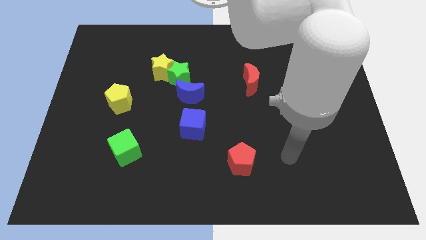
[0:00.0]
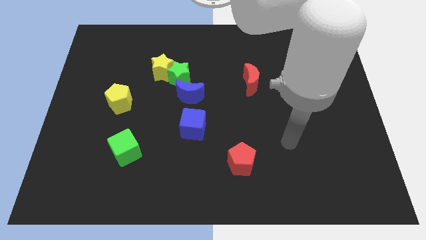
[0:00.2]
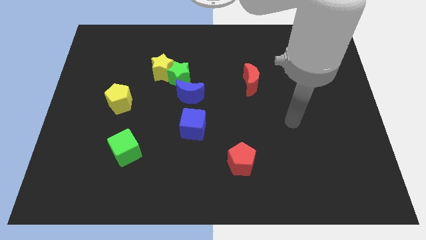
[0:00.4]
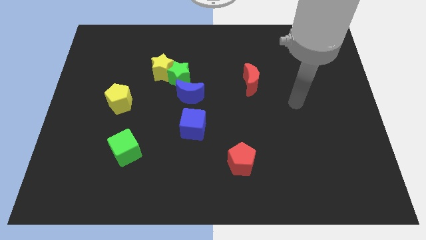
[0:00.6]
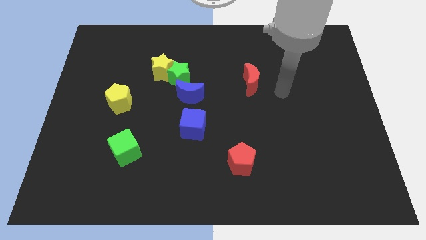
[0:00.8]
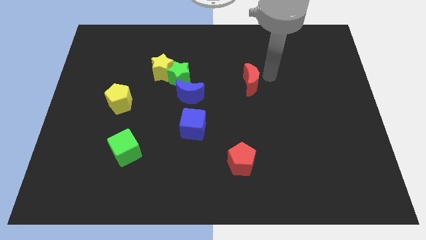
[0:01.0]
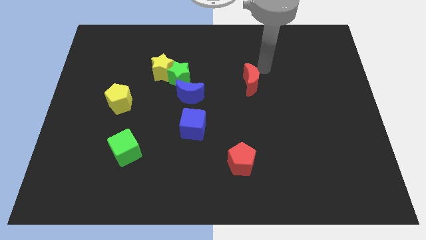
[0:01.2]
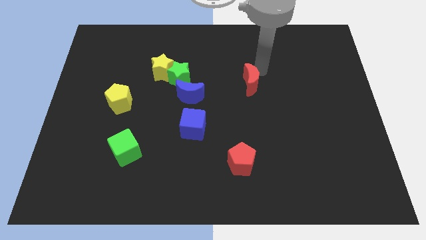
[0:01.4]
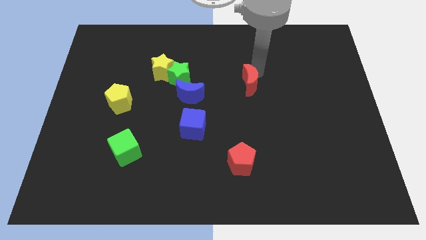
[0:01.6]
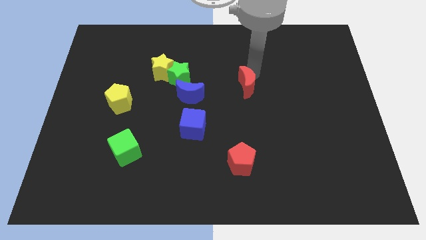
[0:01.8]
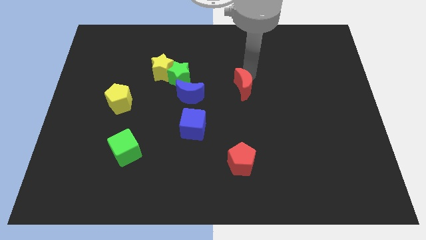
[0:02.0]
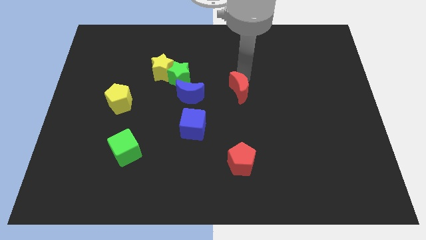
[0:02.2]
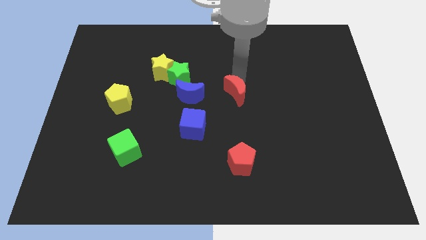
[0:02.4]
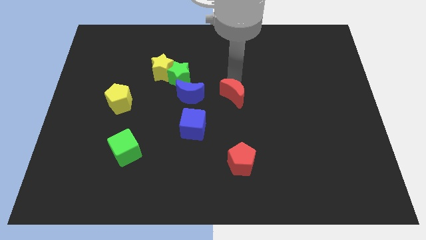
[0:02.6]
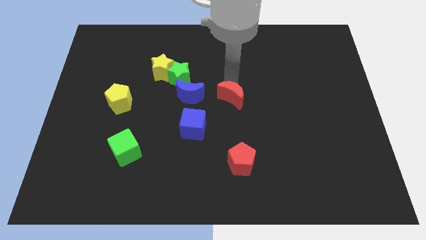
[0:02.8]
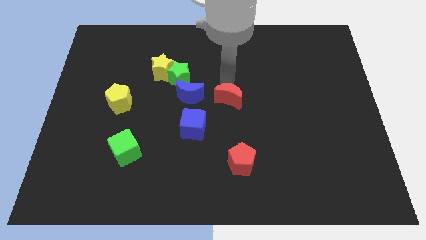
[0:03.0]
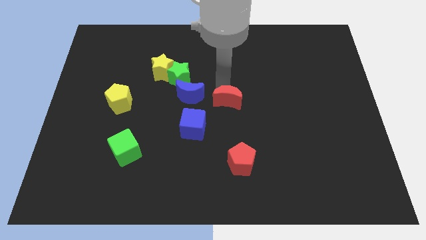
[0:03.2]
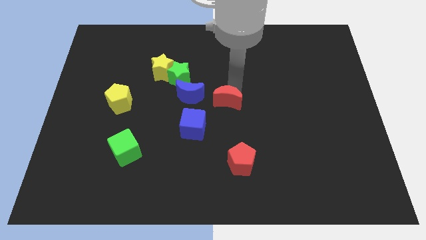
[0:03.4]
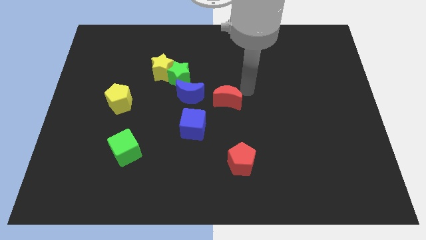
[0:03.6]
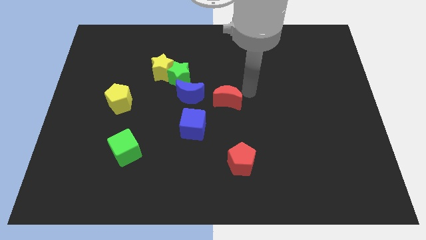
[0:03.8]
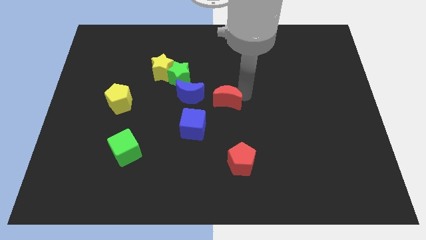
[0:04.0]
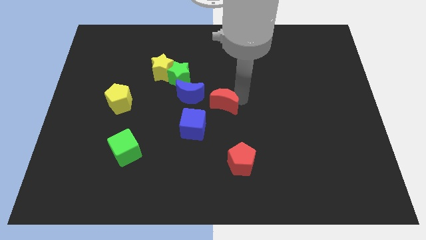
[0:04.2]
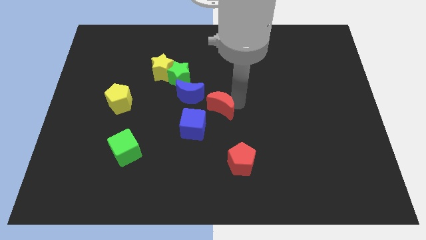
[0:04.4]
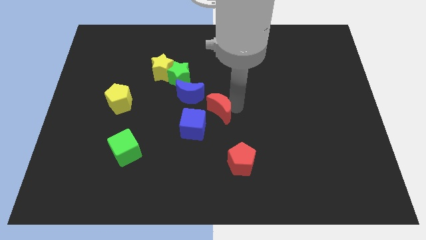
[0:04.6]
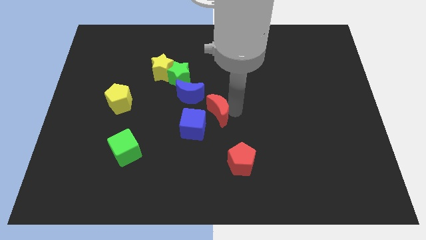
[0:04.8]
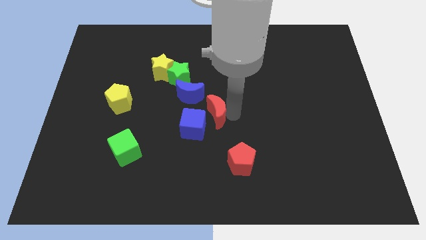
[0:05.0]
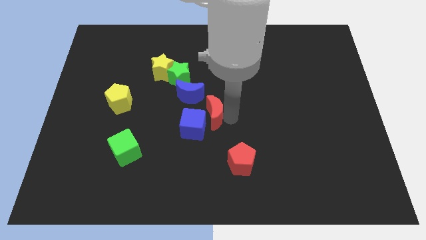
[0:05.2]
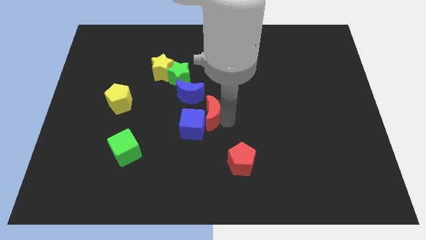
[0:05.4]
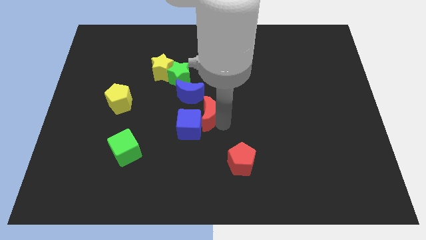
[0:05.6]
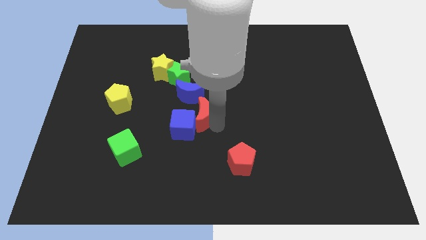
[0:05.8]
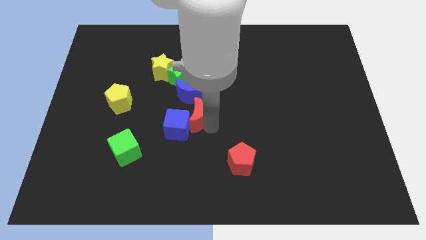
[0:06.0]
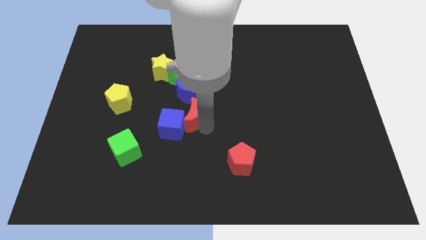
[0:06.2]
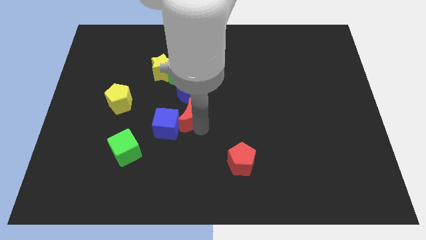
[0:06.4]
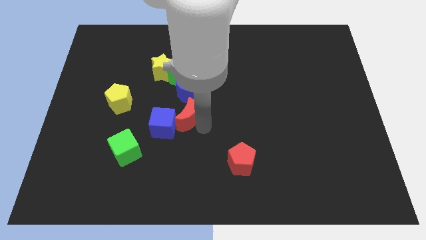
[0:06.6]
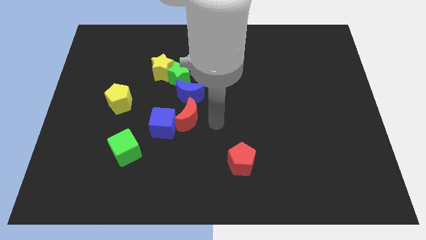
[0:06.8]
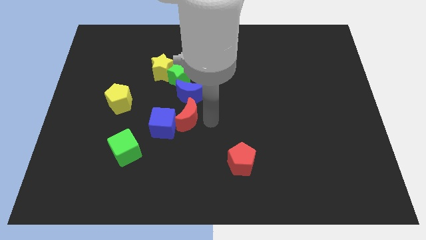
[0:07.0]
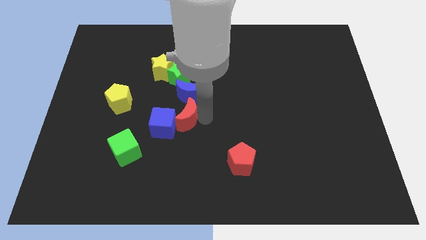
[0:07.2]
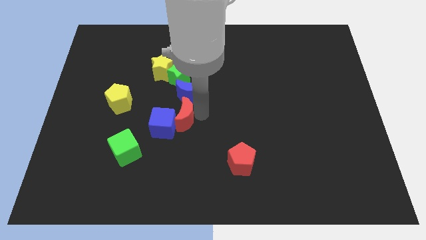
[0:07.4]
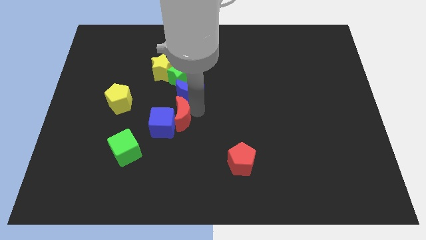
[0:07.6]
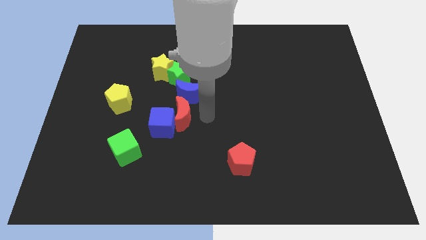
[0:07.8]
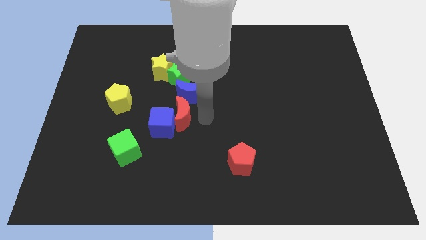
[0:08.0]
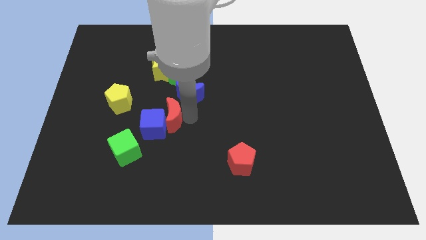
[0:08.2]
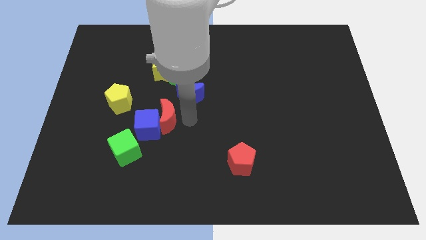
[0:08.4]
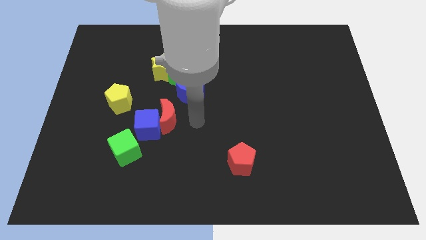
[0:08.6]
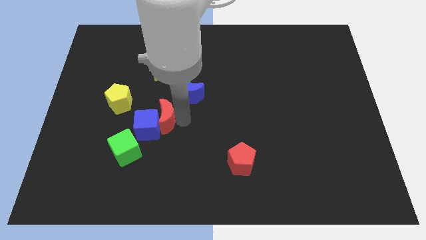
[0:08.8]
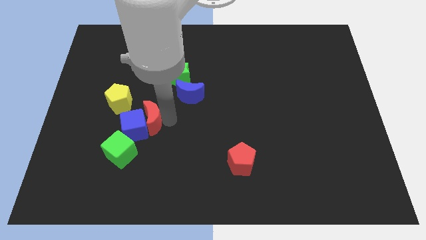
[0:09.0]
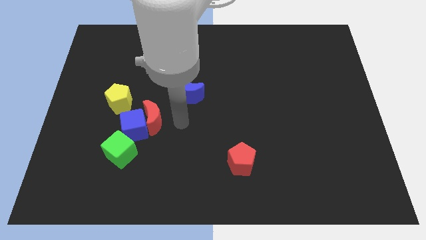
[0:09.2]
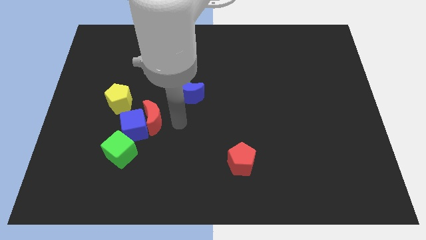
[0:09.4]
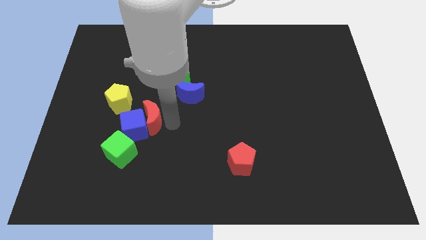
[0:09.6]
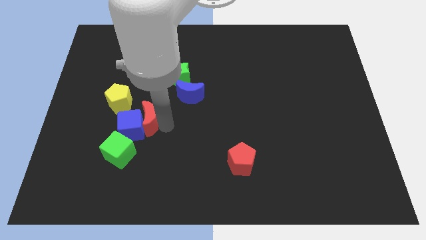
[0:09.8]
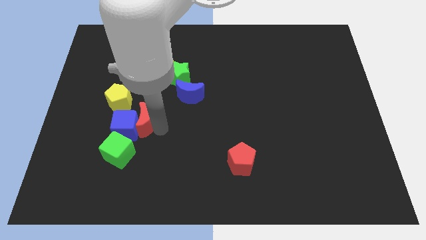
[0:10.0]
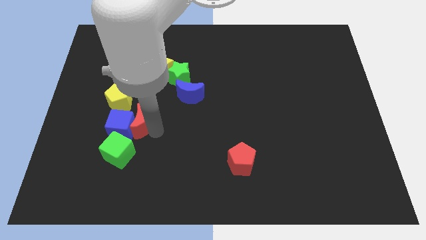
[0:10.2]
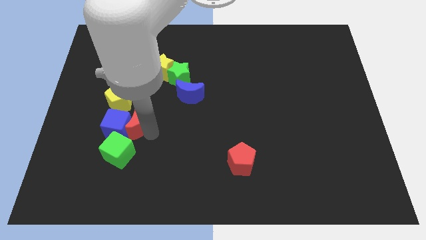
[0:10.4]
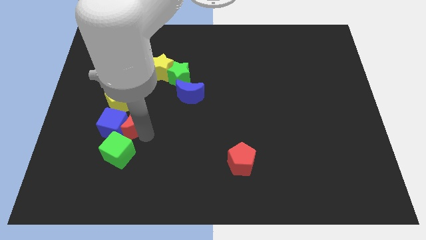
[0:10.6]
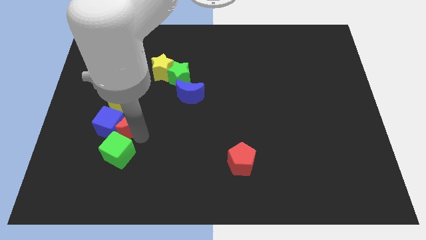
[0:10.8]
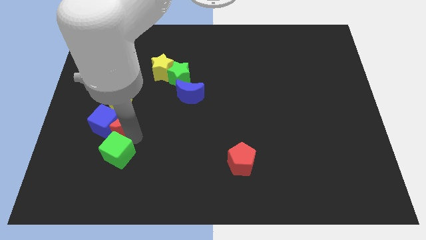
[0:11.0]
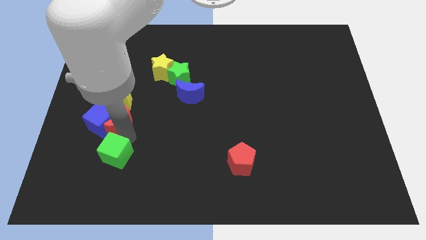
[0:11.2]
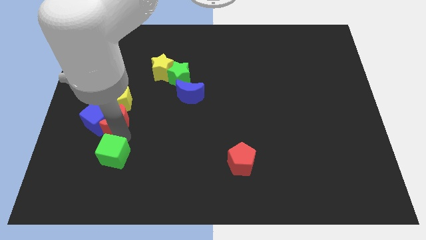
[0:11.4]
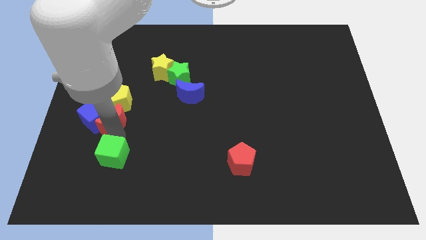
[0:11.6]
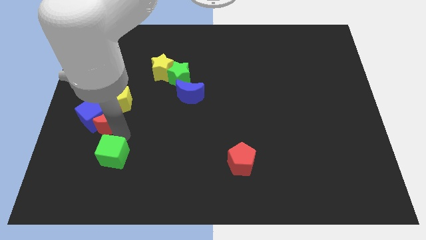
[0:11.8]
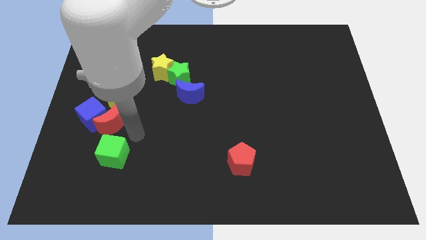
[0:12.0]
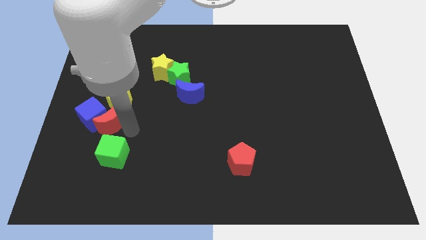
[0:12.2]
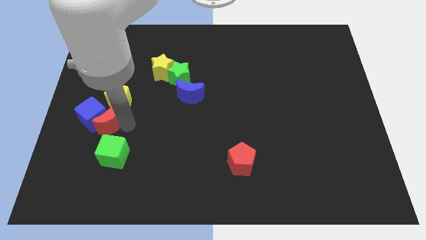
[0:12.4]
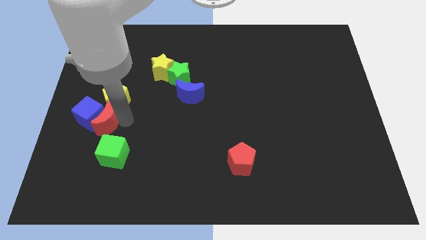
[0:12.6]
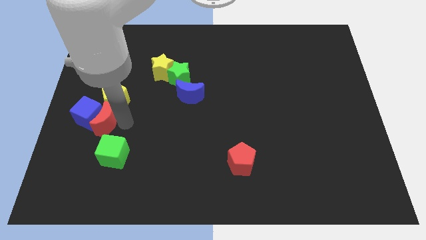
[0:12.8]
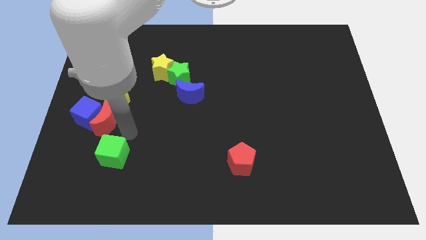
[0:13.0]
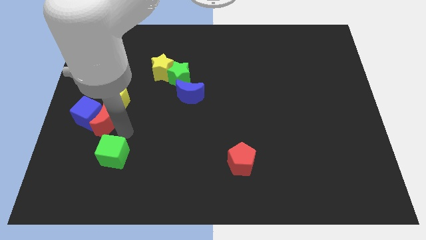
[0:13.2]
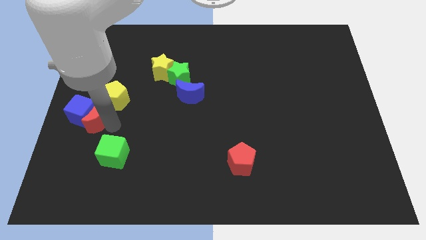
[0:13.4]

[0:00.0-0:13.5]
put the red moon to the left side of the board

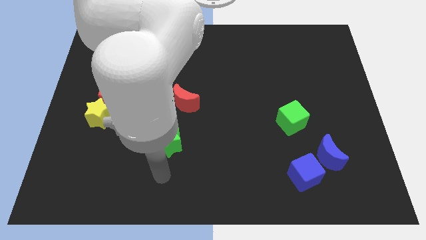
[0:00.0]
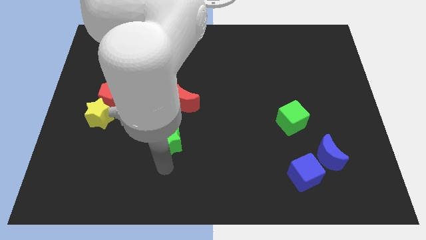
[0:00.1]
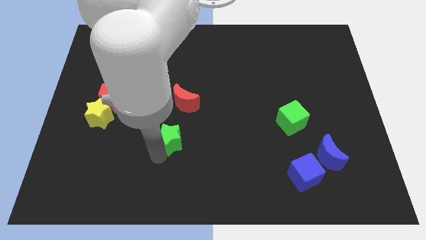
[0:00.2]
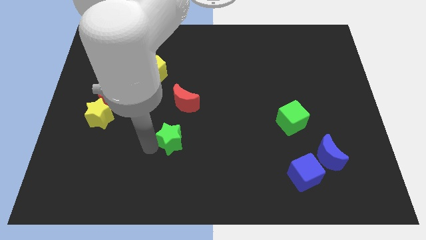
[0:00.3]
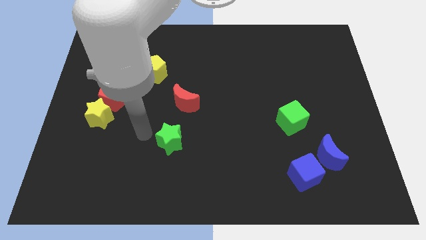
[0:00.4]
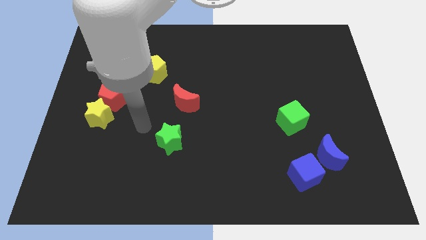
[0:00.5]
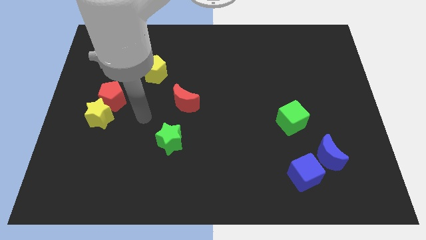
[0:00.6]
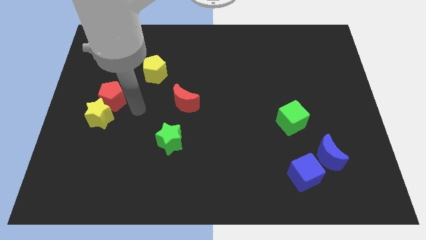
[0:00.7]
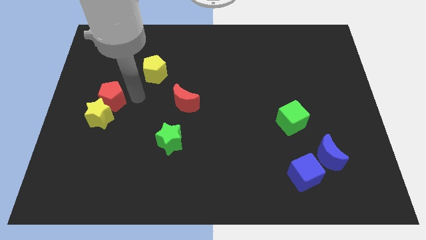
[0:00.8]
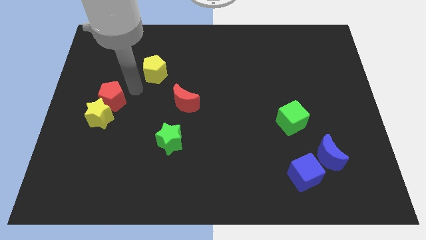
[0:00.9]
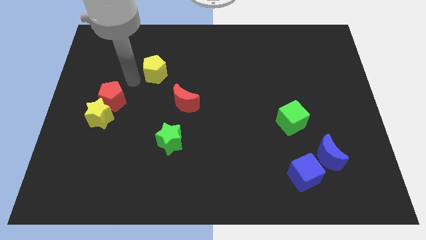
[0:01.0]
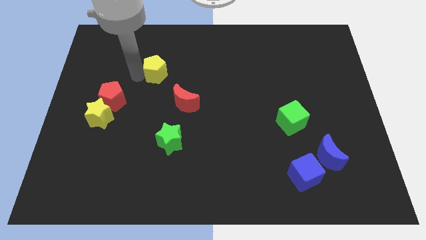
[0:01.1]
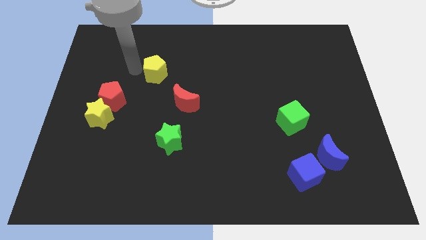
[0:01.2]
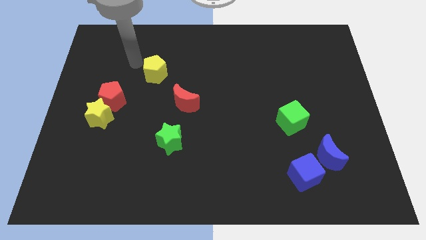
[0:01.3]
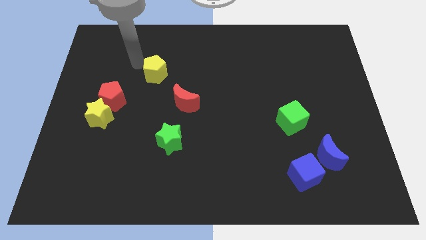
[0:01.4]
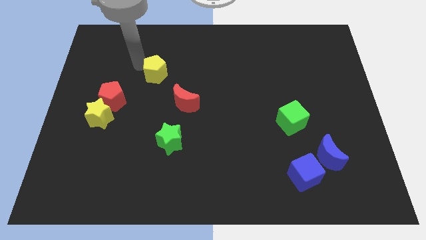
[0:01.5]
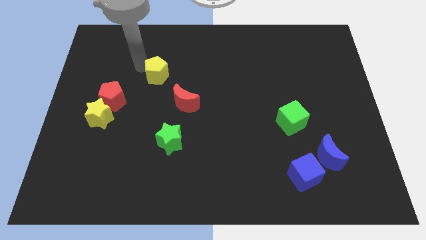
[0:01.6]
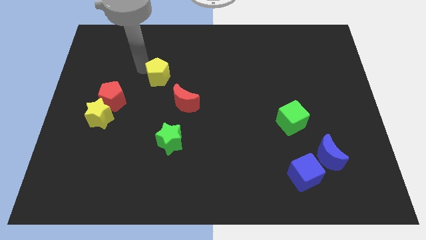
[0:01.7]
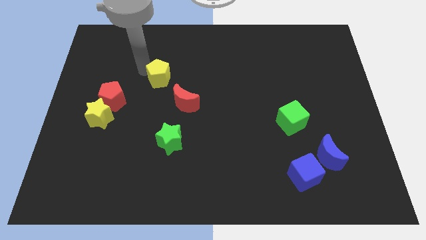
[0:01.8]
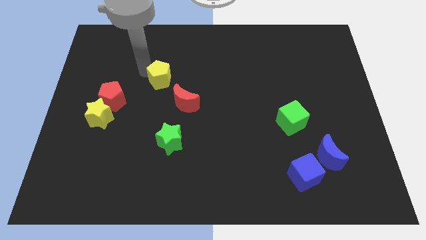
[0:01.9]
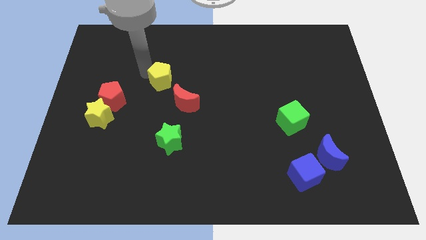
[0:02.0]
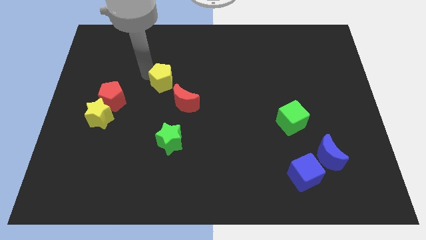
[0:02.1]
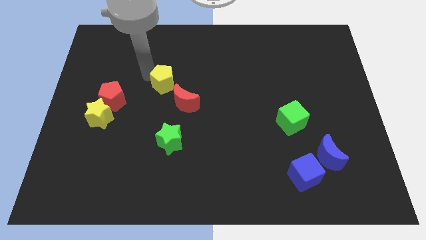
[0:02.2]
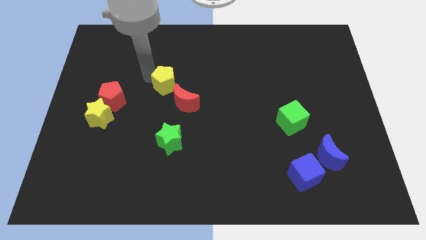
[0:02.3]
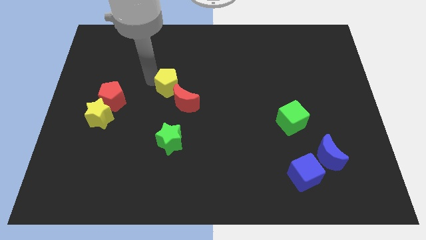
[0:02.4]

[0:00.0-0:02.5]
slide the yellow pentagon to the center
